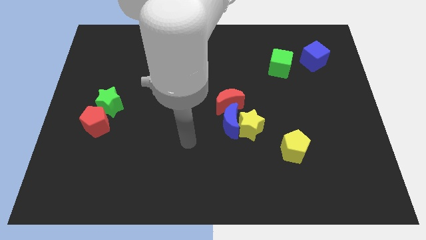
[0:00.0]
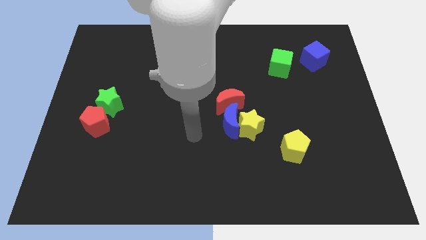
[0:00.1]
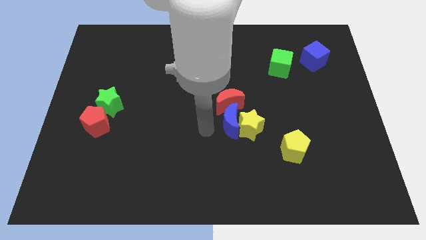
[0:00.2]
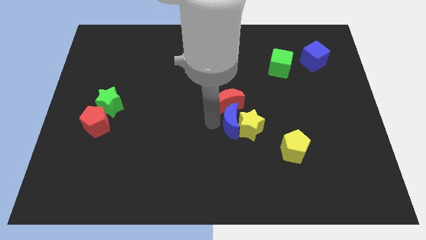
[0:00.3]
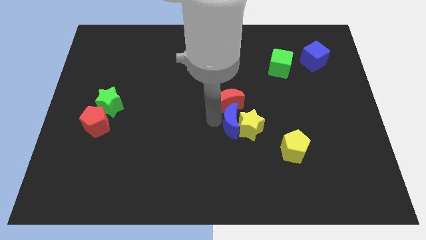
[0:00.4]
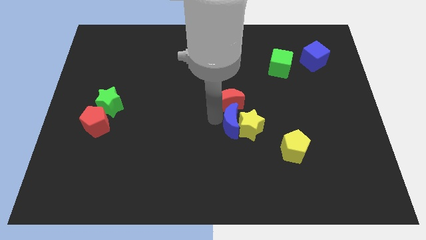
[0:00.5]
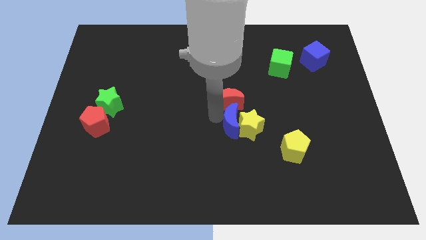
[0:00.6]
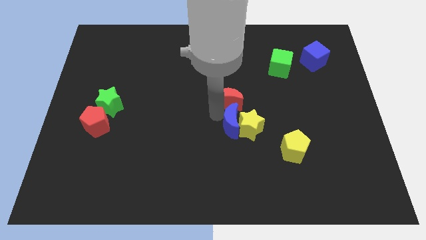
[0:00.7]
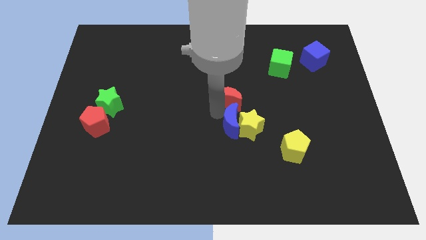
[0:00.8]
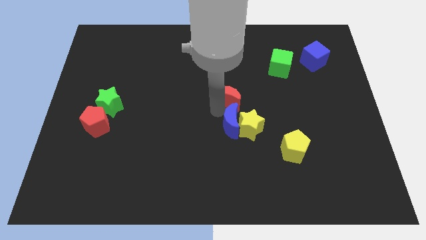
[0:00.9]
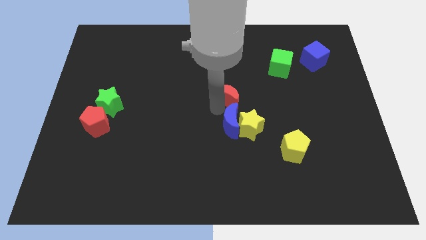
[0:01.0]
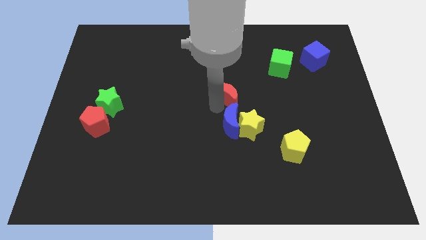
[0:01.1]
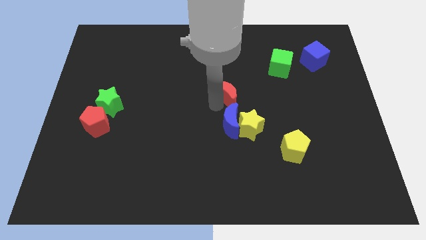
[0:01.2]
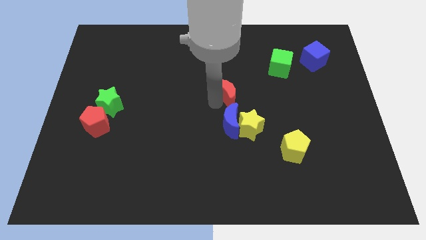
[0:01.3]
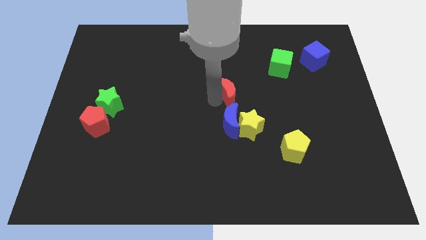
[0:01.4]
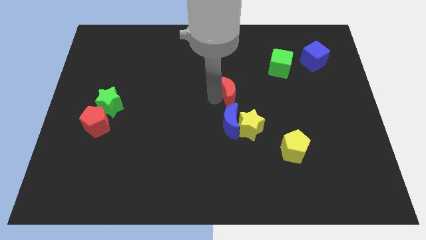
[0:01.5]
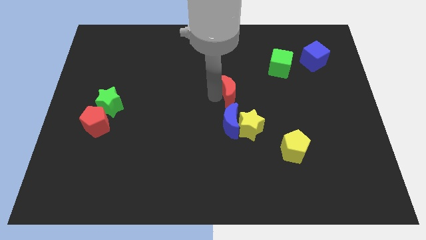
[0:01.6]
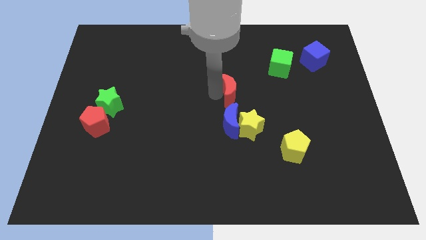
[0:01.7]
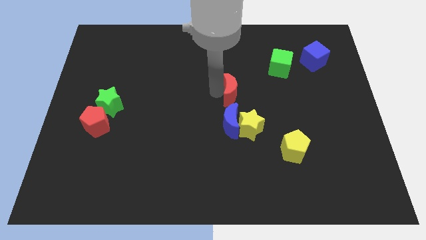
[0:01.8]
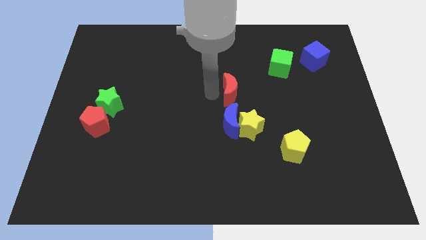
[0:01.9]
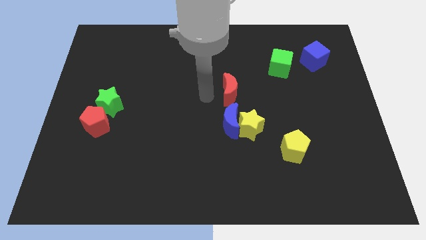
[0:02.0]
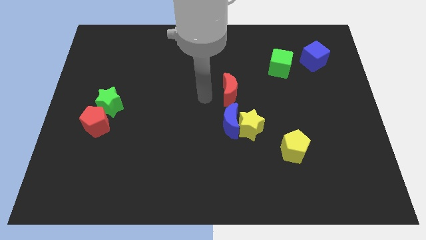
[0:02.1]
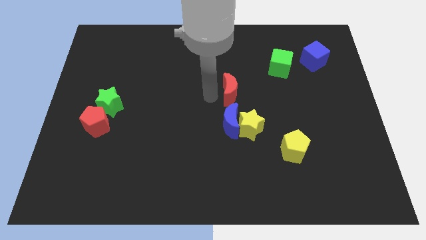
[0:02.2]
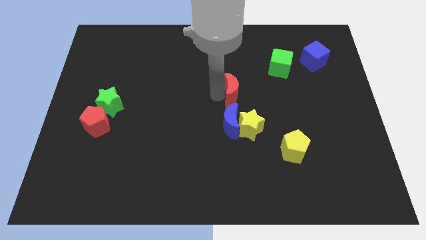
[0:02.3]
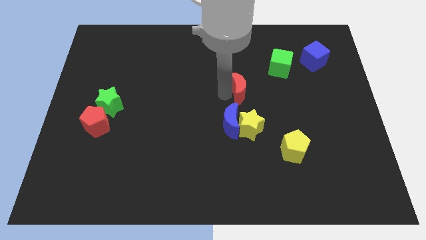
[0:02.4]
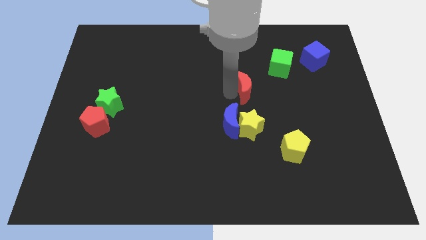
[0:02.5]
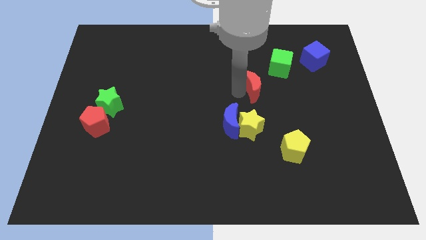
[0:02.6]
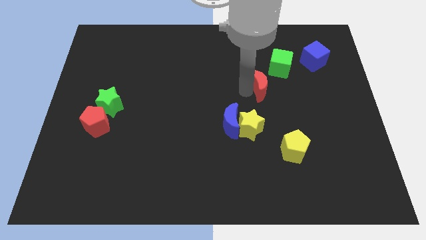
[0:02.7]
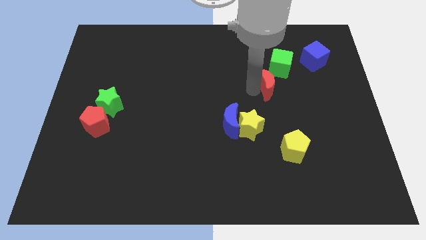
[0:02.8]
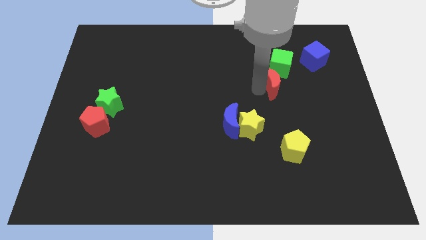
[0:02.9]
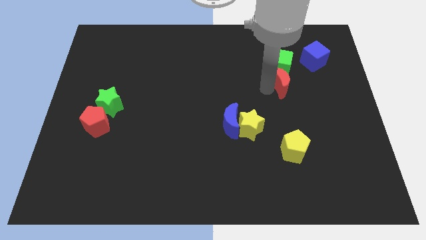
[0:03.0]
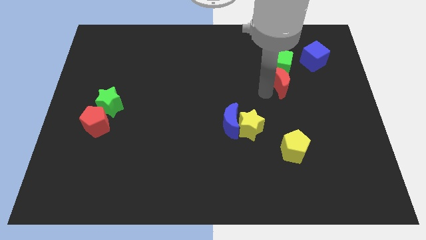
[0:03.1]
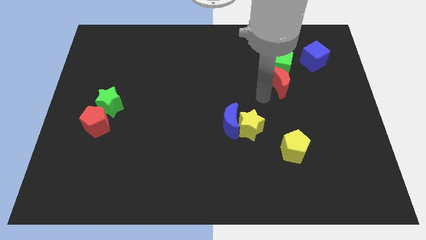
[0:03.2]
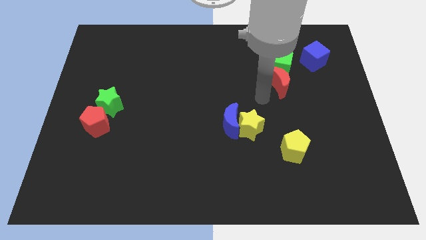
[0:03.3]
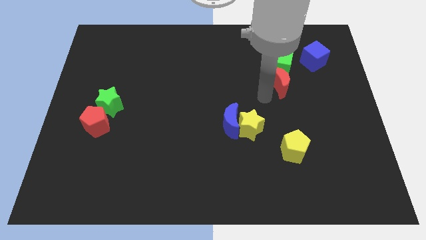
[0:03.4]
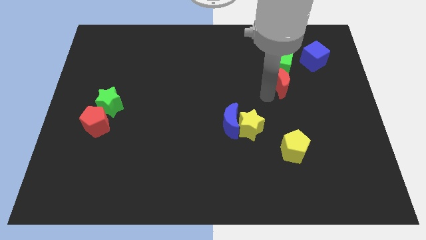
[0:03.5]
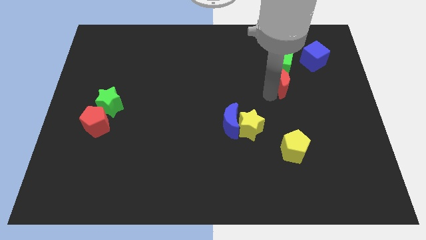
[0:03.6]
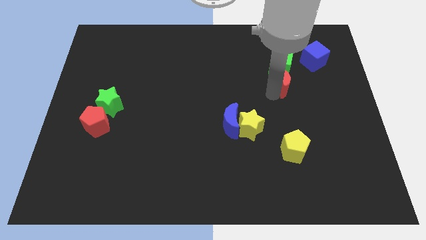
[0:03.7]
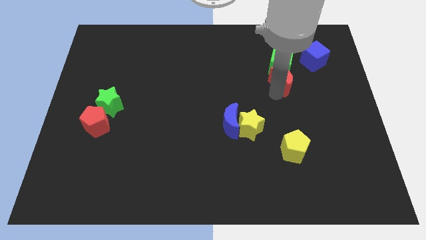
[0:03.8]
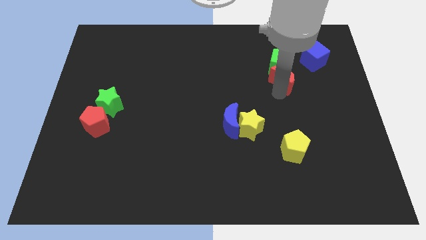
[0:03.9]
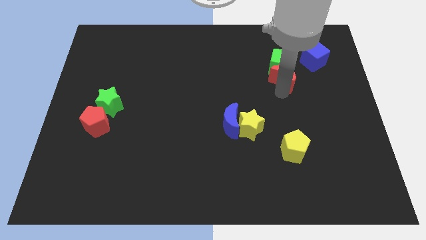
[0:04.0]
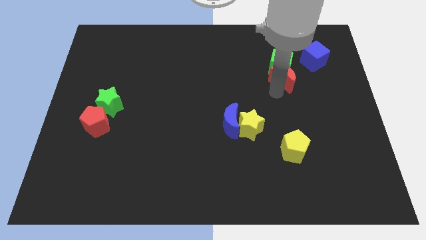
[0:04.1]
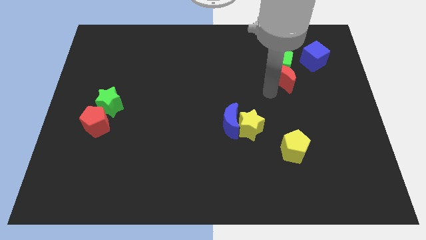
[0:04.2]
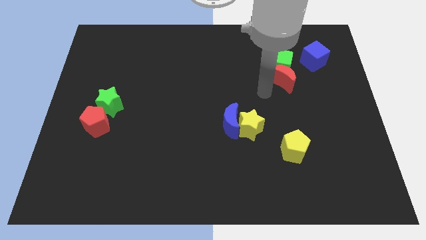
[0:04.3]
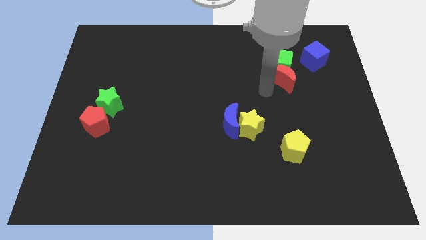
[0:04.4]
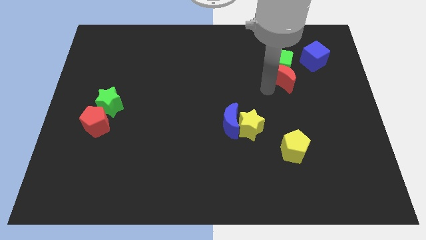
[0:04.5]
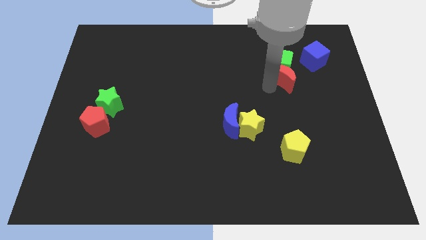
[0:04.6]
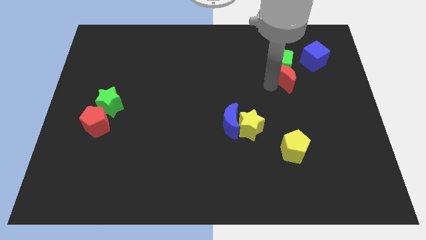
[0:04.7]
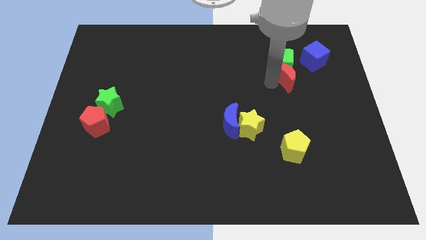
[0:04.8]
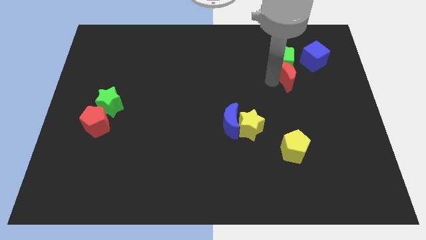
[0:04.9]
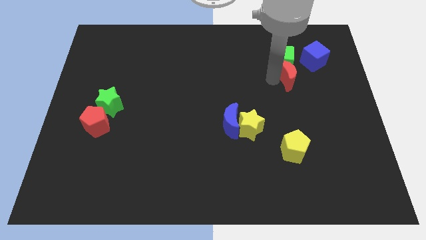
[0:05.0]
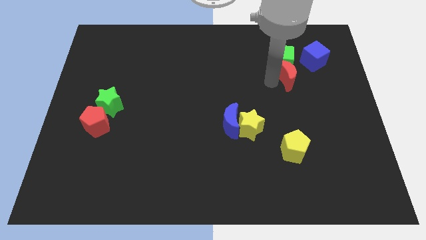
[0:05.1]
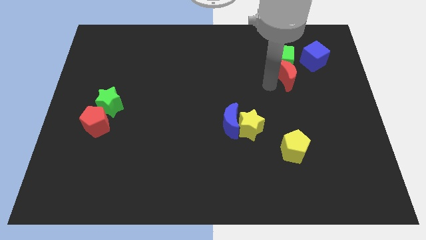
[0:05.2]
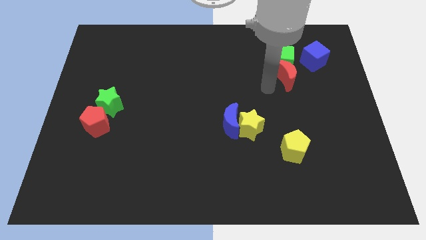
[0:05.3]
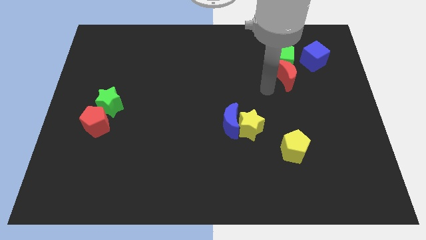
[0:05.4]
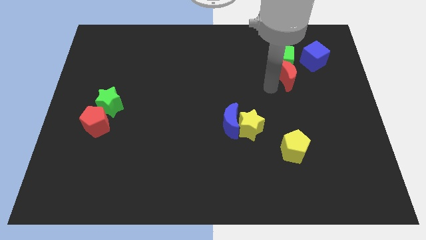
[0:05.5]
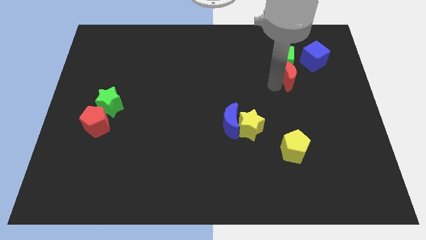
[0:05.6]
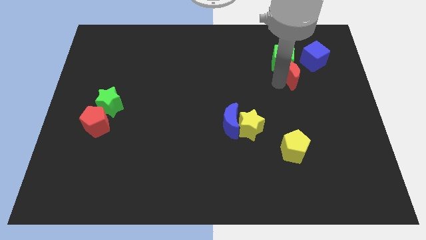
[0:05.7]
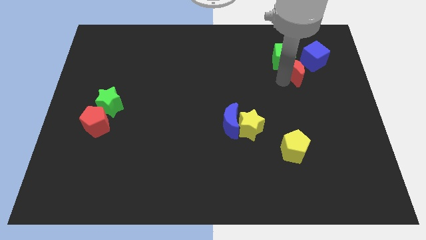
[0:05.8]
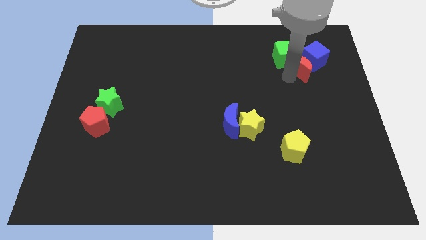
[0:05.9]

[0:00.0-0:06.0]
slide the red moon next to the blue cube

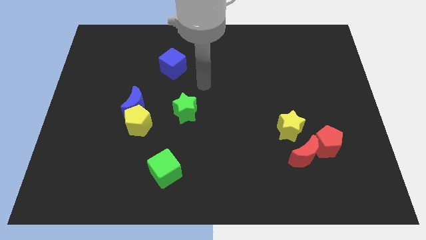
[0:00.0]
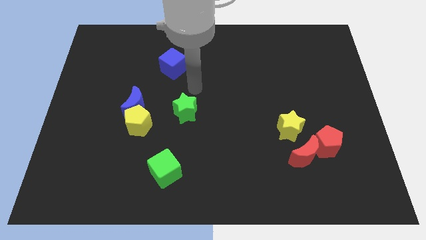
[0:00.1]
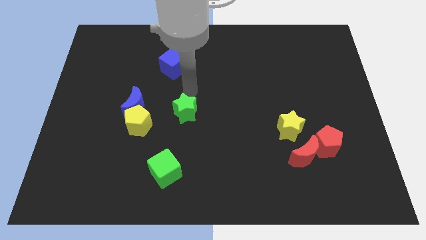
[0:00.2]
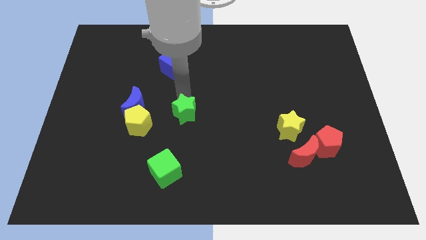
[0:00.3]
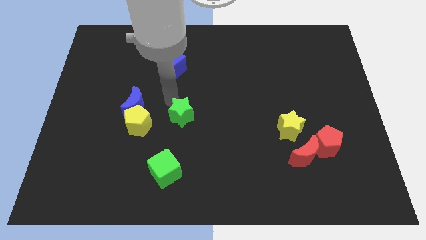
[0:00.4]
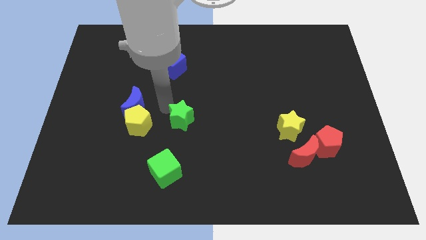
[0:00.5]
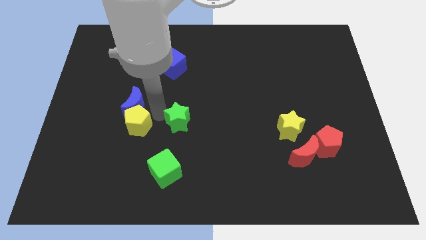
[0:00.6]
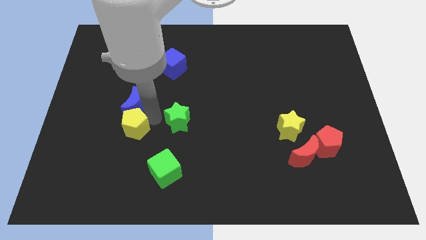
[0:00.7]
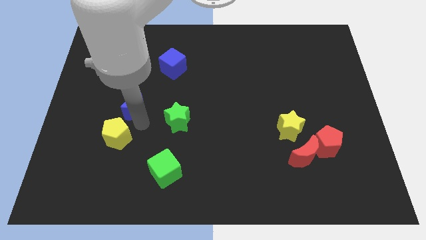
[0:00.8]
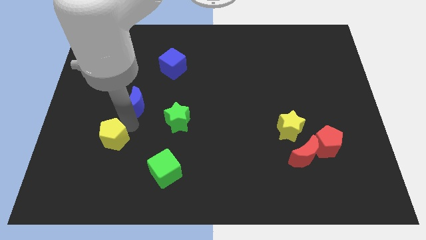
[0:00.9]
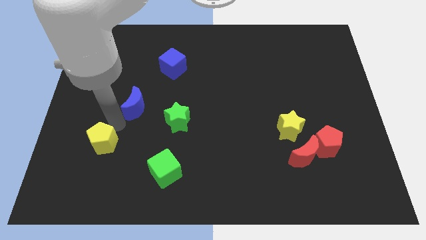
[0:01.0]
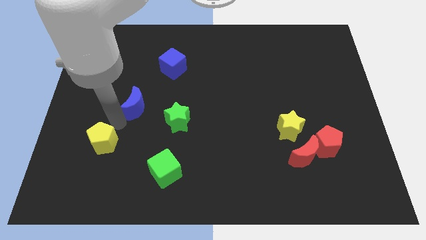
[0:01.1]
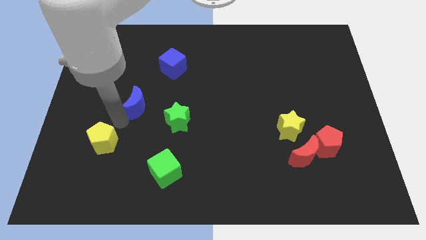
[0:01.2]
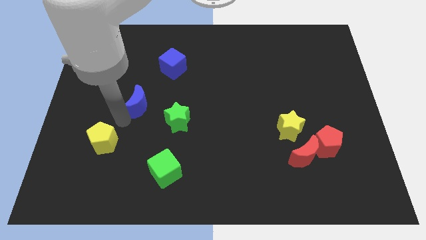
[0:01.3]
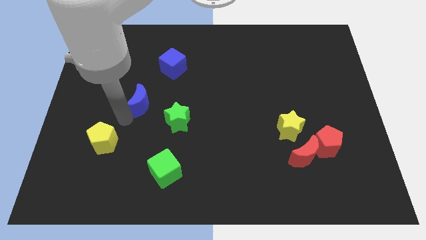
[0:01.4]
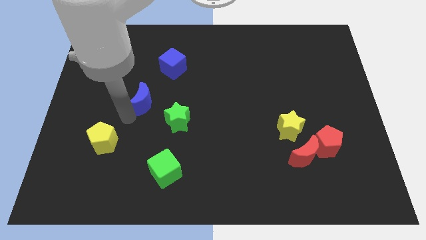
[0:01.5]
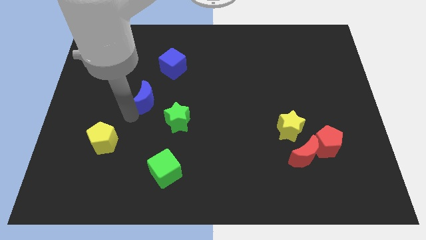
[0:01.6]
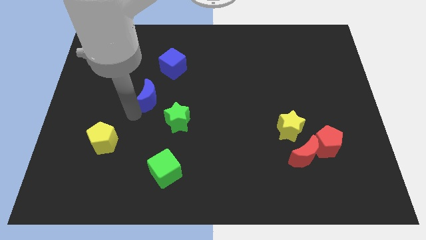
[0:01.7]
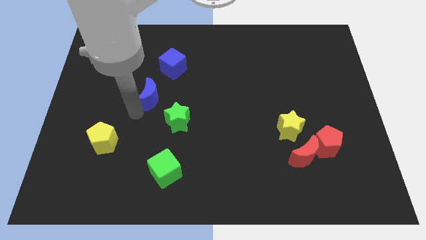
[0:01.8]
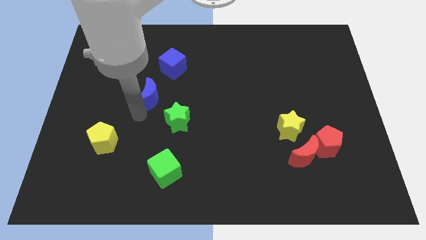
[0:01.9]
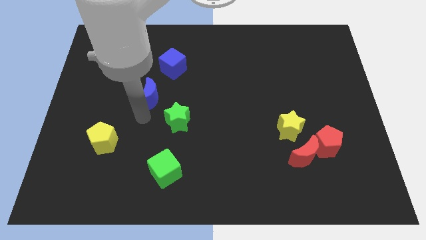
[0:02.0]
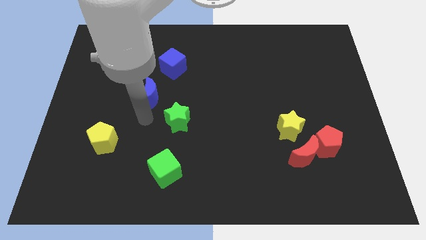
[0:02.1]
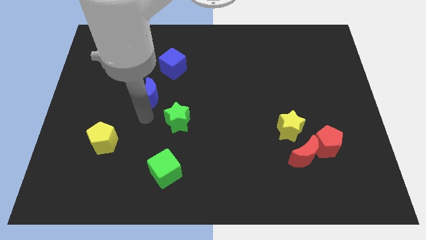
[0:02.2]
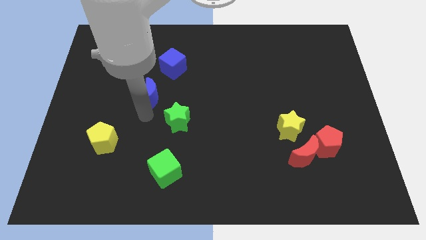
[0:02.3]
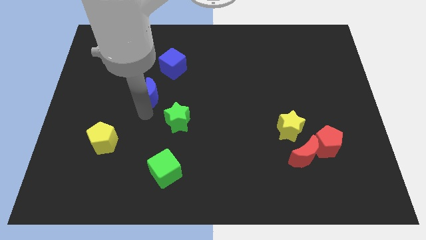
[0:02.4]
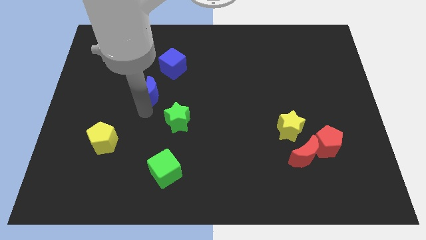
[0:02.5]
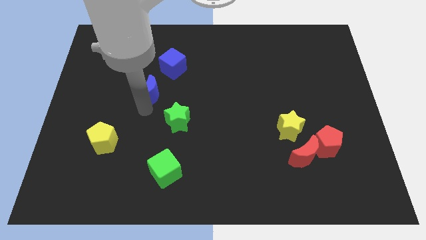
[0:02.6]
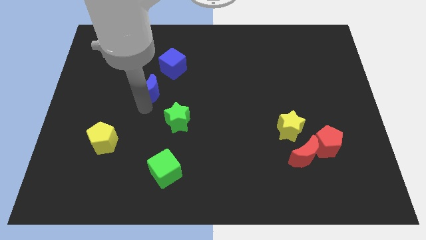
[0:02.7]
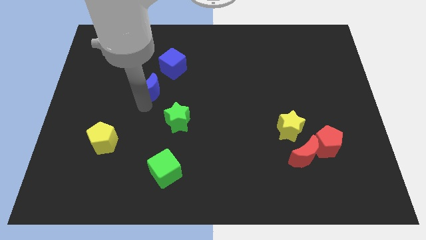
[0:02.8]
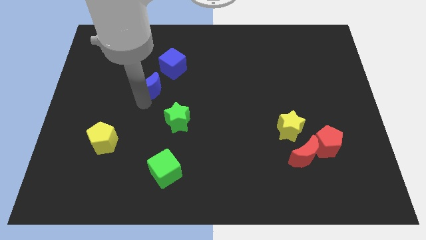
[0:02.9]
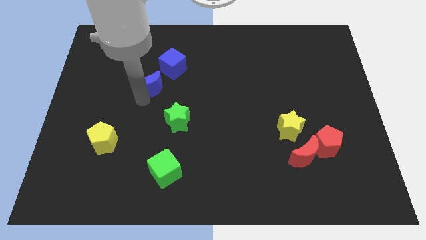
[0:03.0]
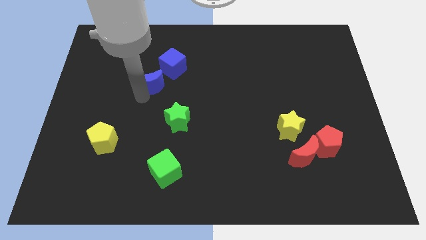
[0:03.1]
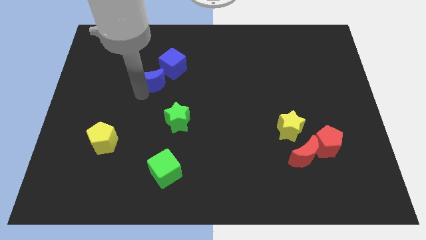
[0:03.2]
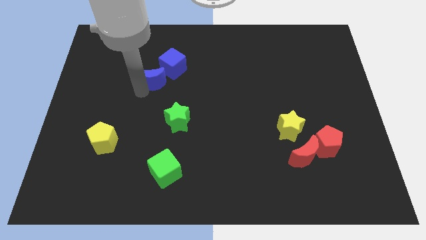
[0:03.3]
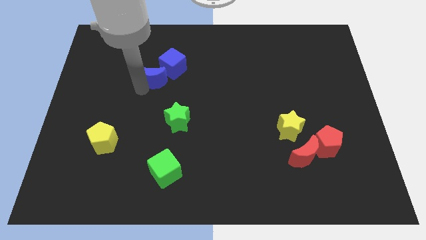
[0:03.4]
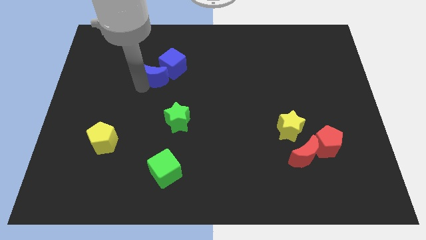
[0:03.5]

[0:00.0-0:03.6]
put the blue moon close to the blue cube
